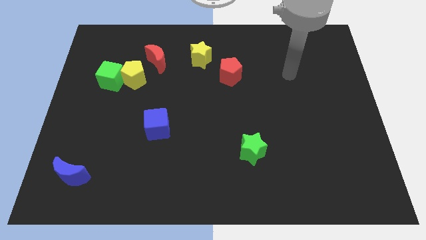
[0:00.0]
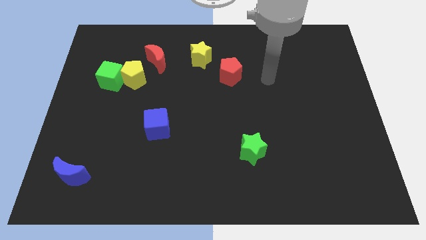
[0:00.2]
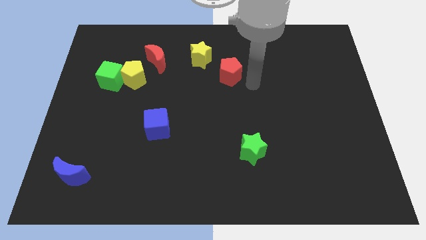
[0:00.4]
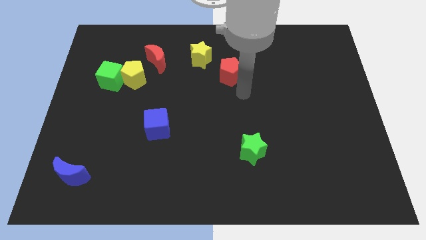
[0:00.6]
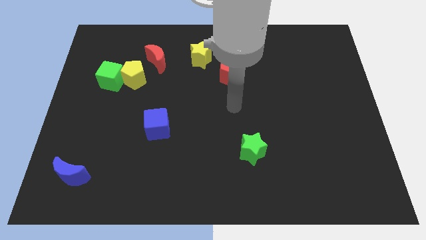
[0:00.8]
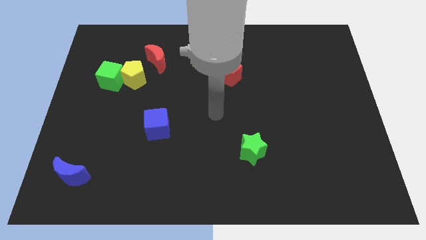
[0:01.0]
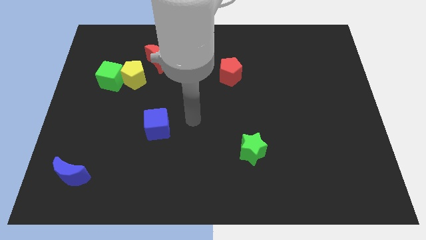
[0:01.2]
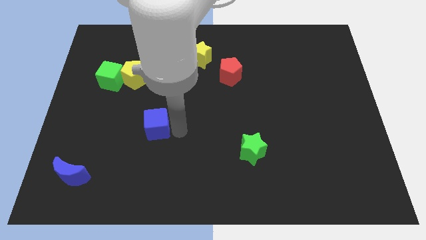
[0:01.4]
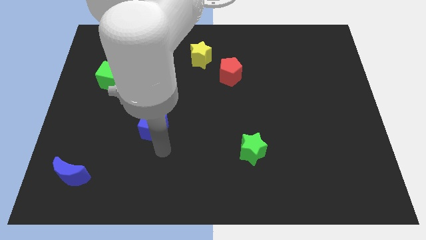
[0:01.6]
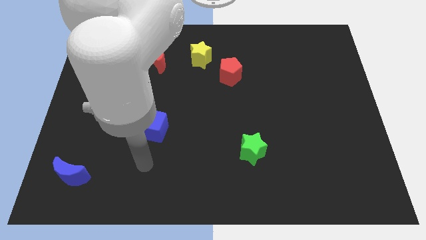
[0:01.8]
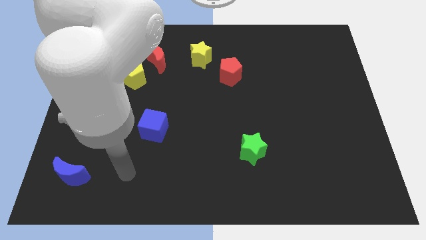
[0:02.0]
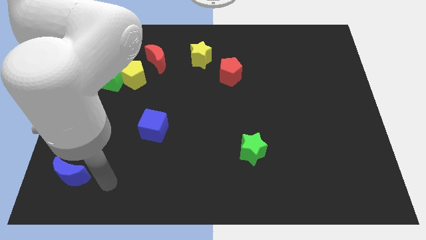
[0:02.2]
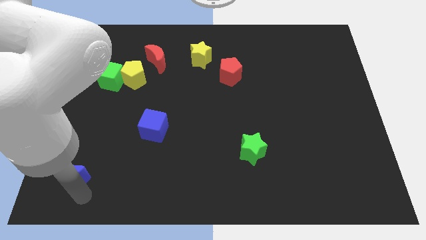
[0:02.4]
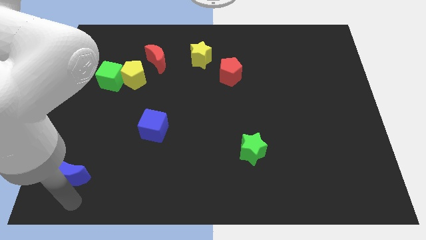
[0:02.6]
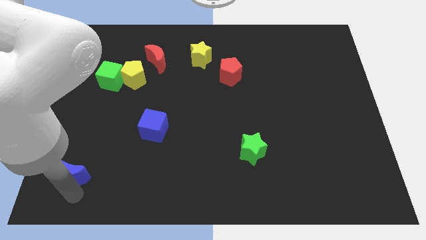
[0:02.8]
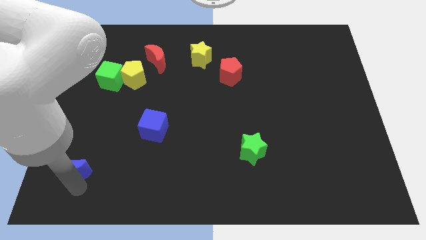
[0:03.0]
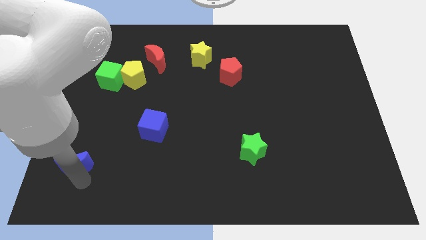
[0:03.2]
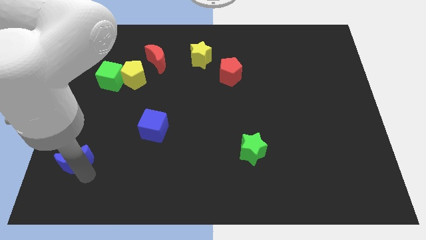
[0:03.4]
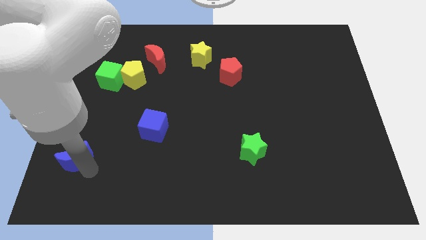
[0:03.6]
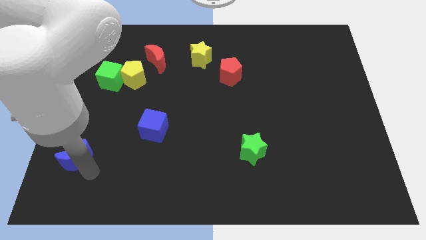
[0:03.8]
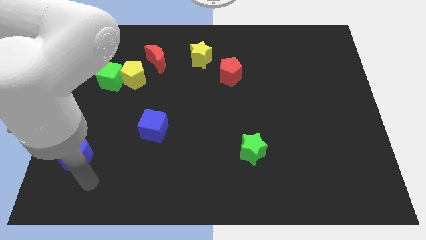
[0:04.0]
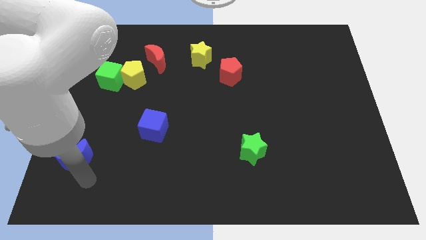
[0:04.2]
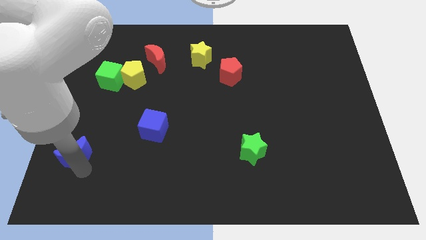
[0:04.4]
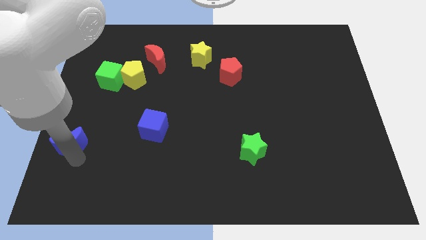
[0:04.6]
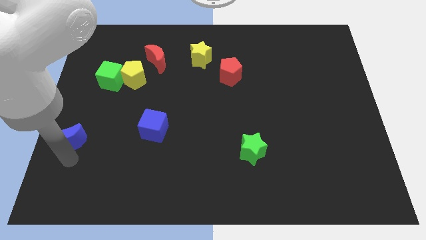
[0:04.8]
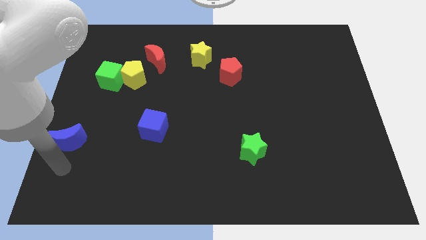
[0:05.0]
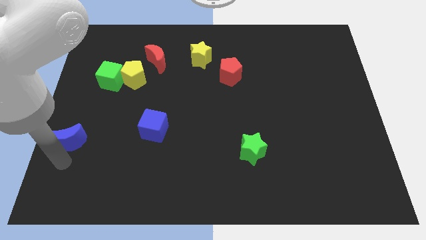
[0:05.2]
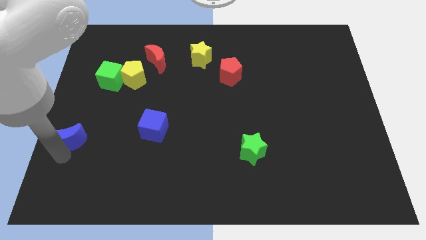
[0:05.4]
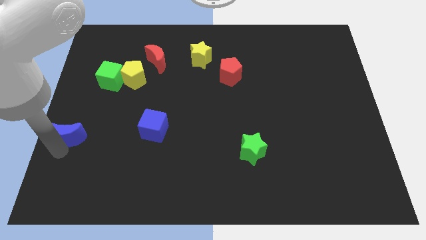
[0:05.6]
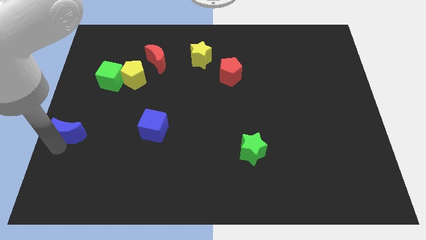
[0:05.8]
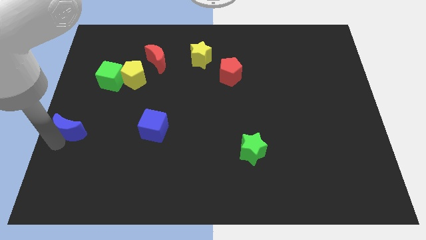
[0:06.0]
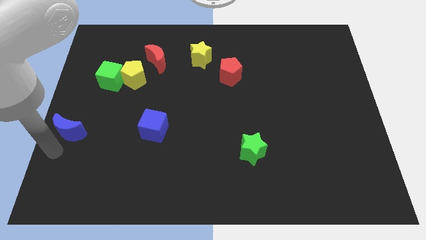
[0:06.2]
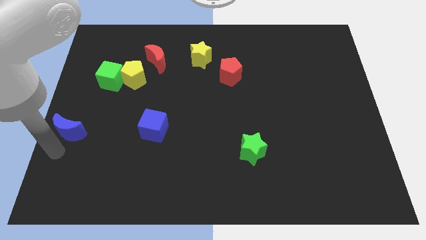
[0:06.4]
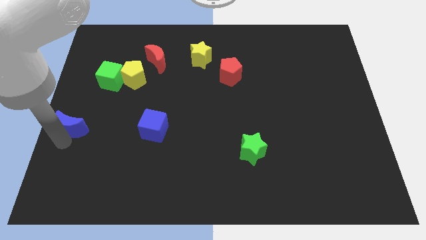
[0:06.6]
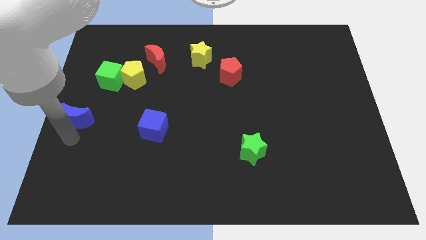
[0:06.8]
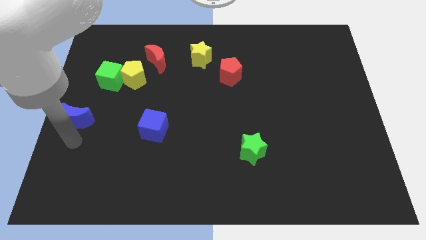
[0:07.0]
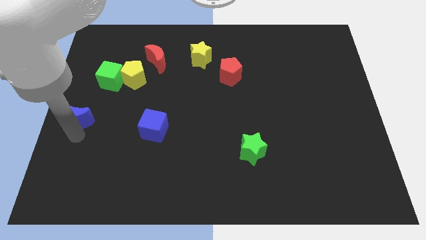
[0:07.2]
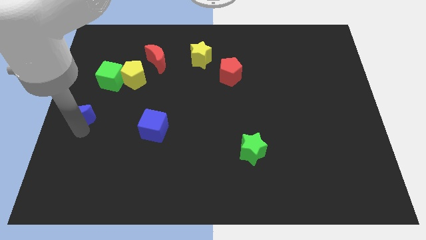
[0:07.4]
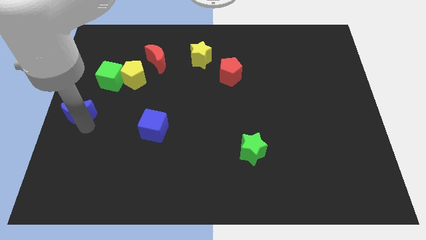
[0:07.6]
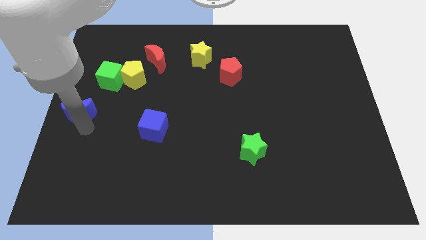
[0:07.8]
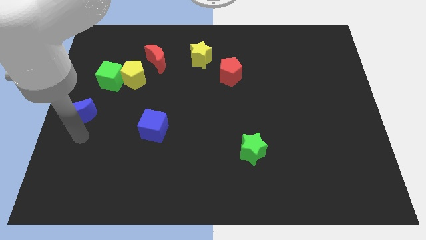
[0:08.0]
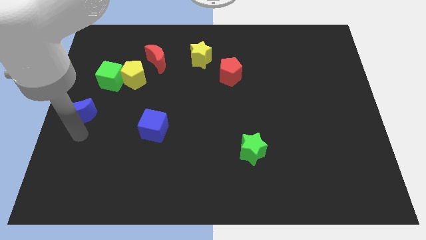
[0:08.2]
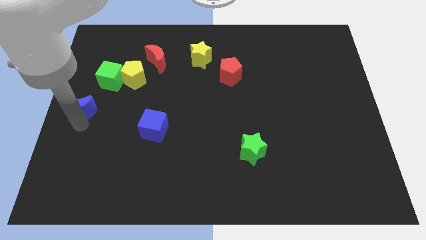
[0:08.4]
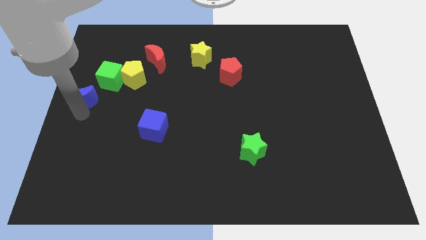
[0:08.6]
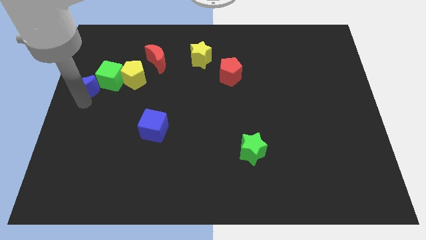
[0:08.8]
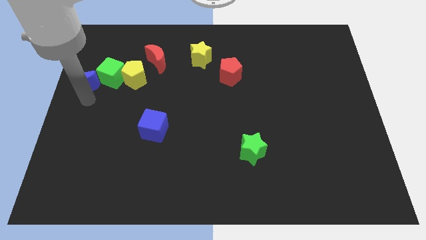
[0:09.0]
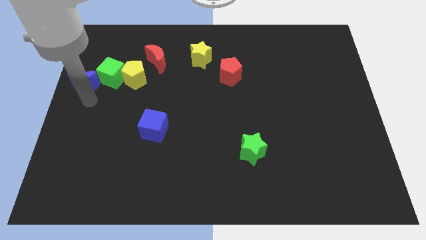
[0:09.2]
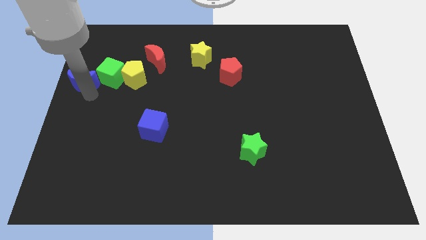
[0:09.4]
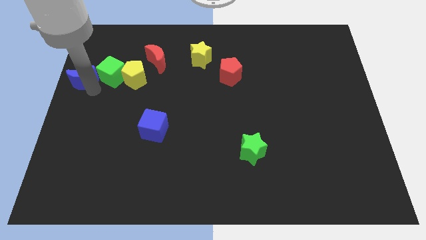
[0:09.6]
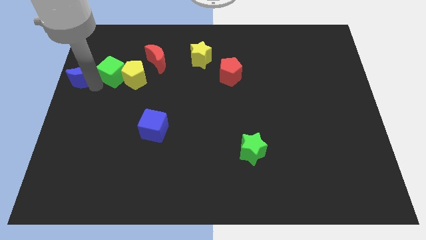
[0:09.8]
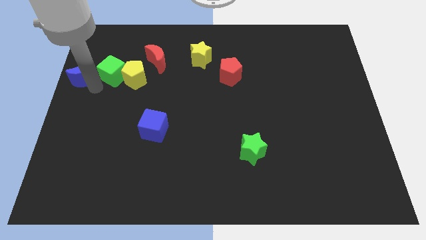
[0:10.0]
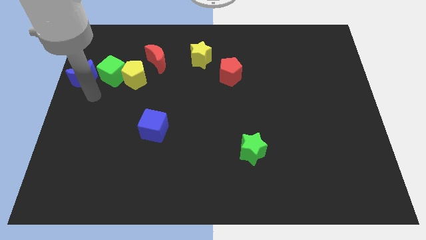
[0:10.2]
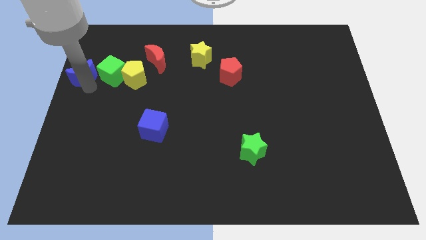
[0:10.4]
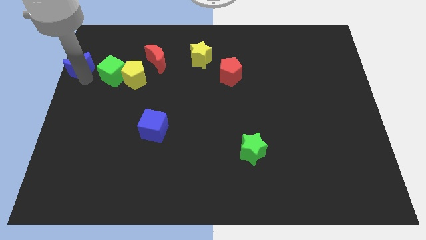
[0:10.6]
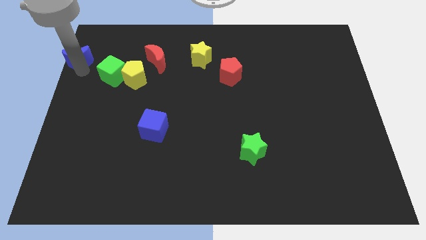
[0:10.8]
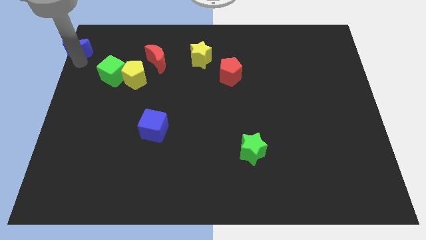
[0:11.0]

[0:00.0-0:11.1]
push the blue moon to the top left corner

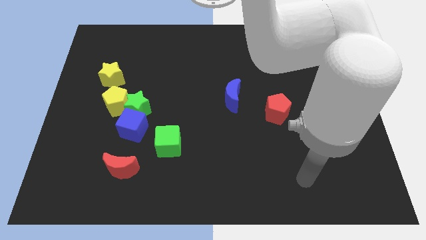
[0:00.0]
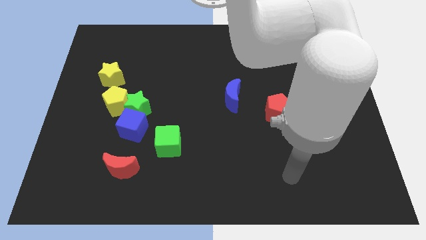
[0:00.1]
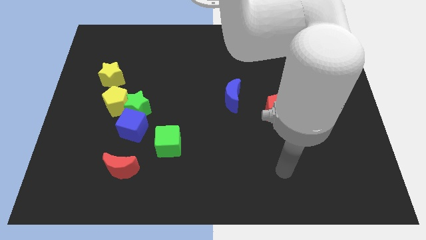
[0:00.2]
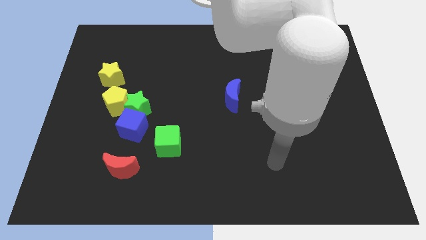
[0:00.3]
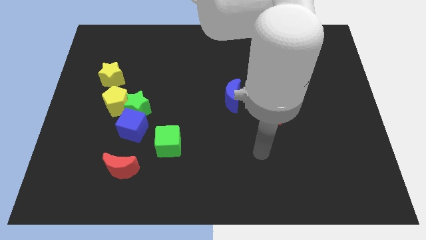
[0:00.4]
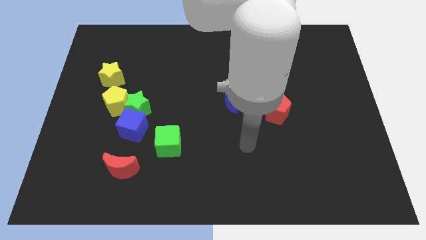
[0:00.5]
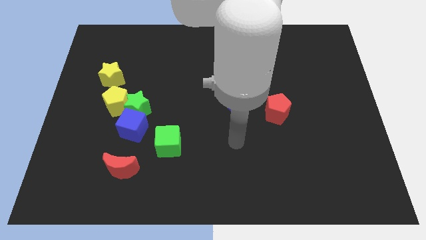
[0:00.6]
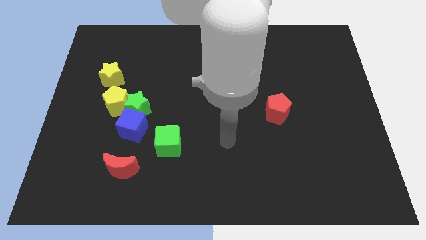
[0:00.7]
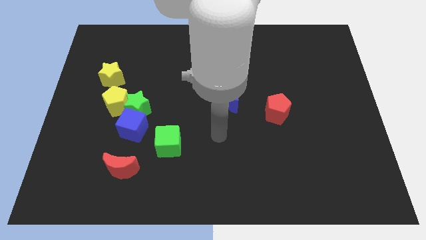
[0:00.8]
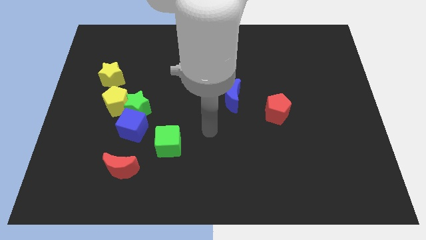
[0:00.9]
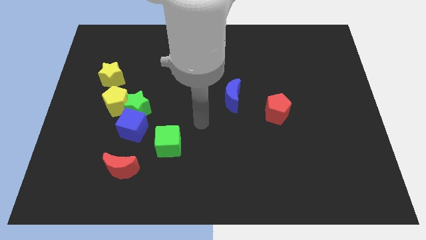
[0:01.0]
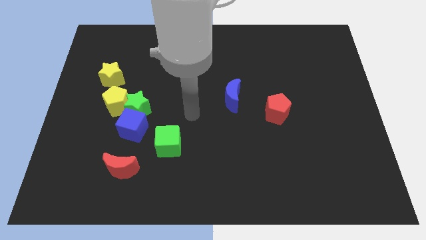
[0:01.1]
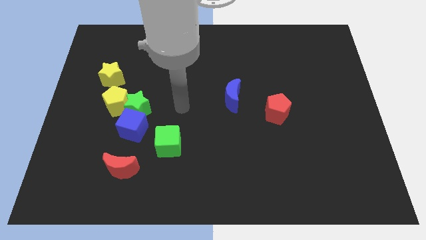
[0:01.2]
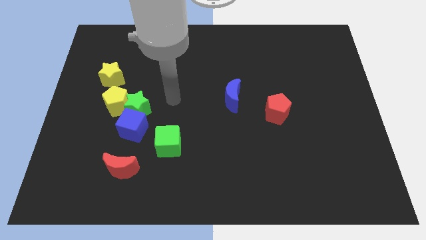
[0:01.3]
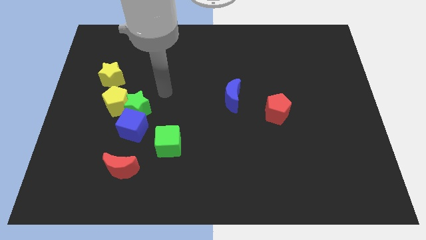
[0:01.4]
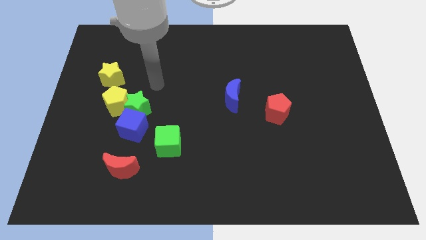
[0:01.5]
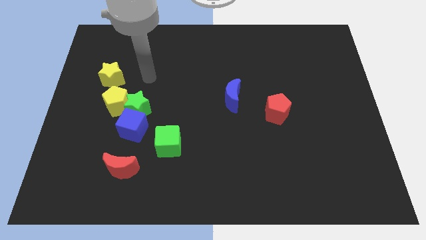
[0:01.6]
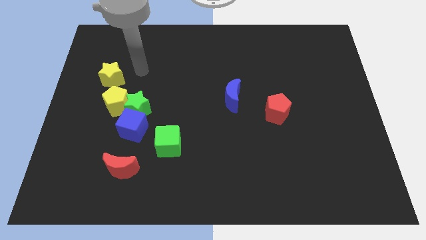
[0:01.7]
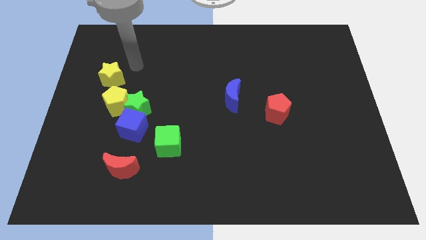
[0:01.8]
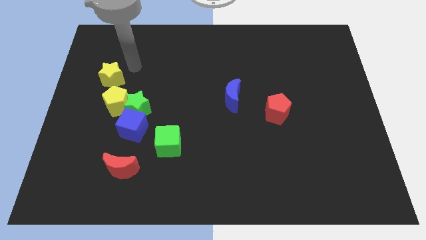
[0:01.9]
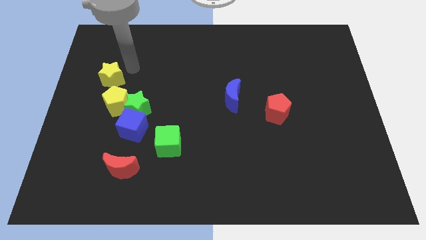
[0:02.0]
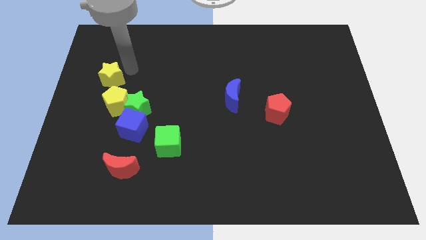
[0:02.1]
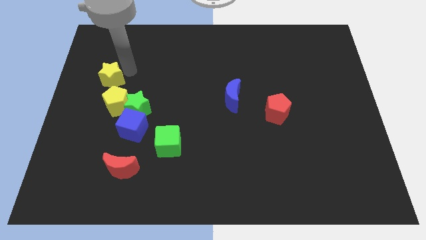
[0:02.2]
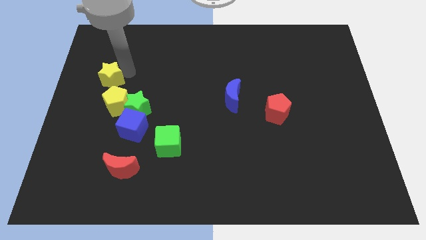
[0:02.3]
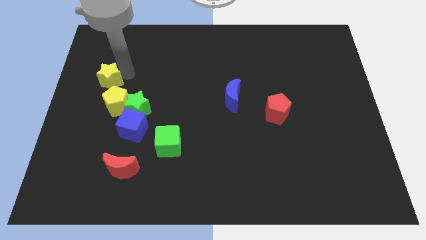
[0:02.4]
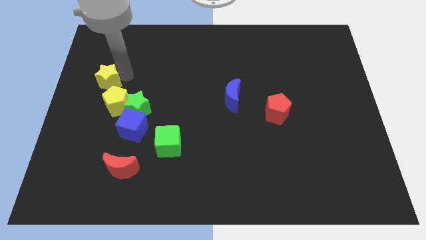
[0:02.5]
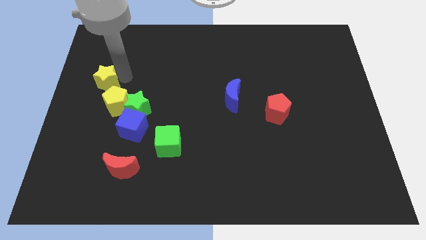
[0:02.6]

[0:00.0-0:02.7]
push the yellow star to the center left
